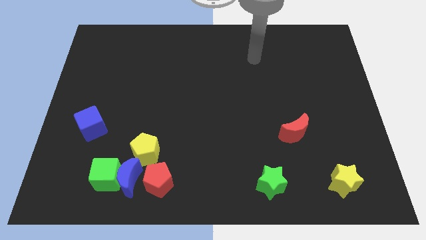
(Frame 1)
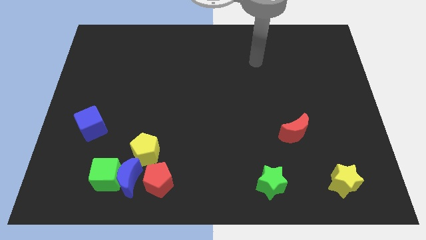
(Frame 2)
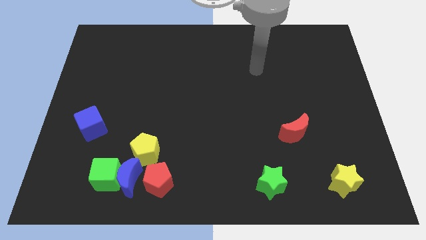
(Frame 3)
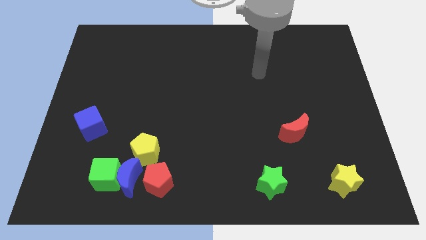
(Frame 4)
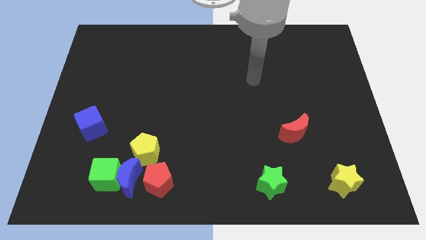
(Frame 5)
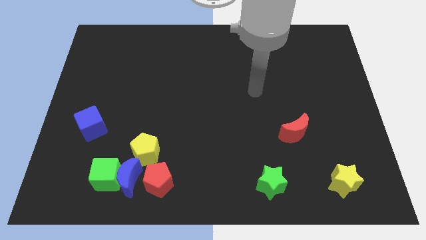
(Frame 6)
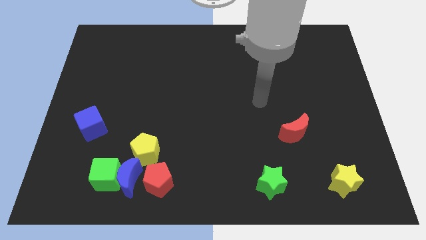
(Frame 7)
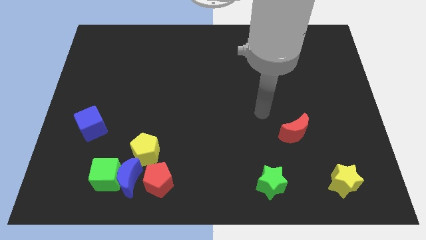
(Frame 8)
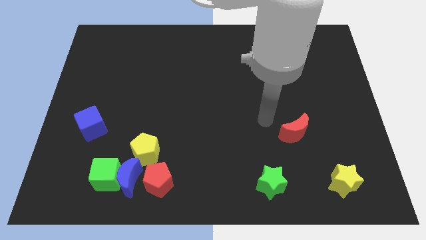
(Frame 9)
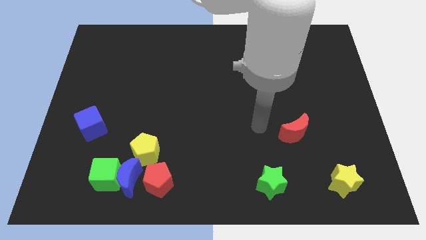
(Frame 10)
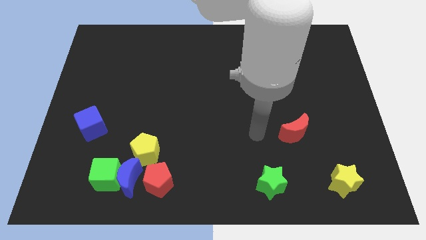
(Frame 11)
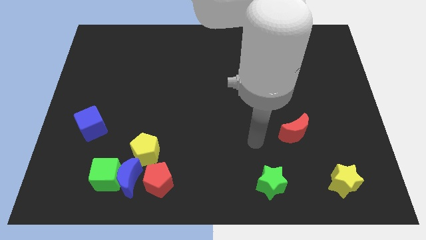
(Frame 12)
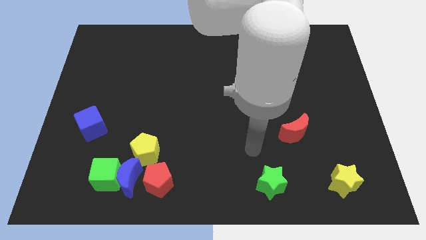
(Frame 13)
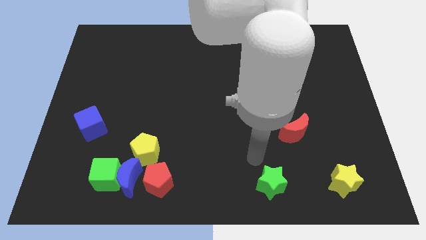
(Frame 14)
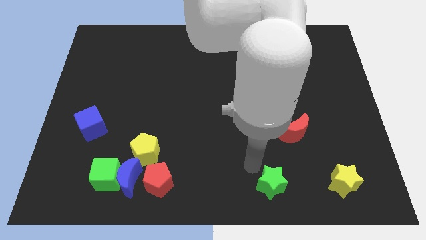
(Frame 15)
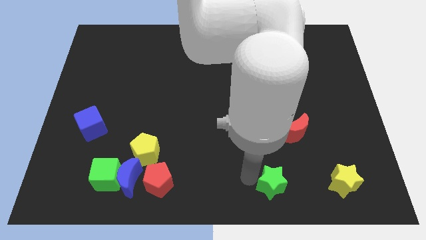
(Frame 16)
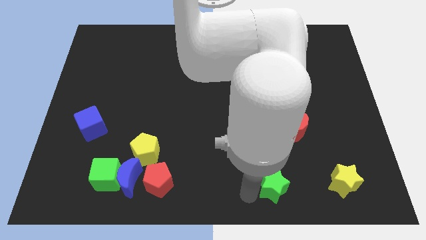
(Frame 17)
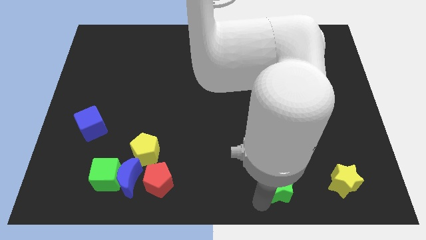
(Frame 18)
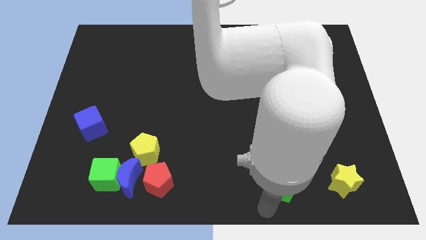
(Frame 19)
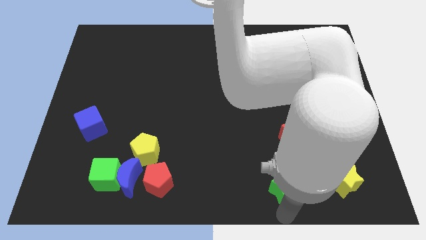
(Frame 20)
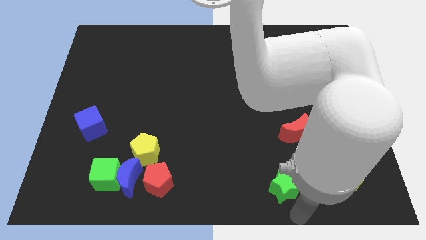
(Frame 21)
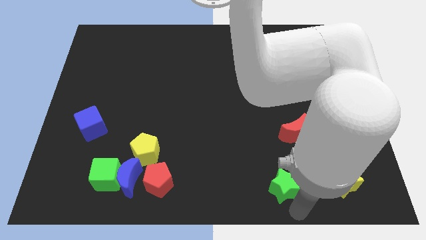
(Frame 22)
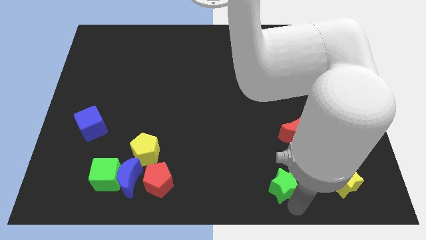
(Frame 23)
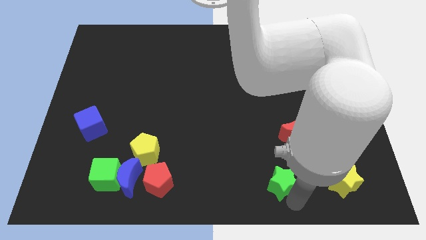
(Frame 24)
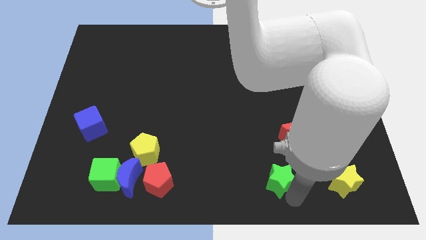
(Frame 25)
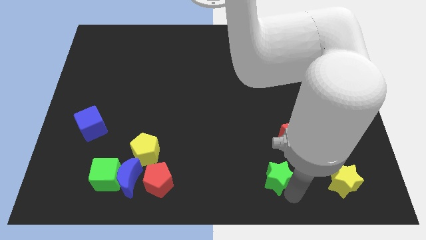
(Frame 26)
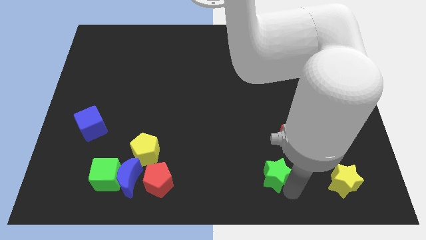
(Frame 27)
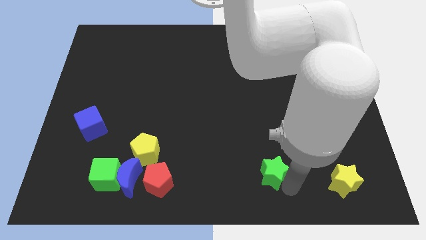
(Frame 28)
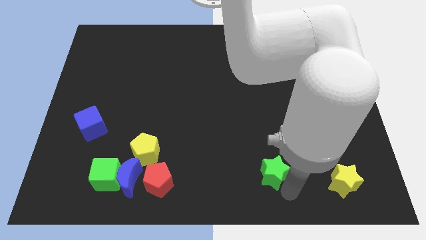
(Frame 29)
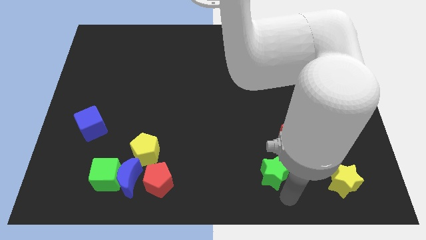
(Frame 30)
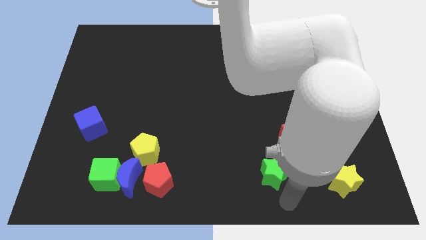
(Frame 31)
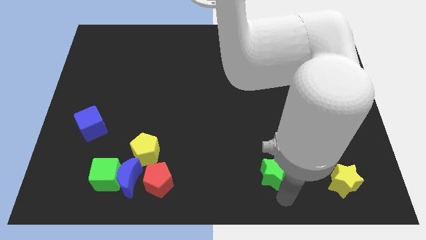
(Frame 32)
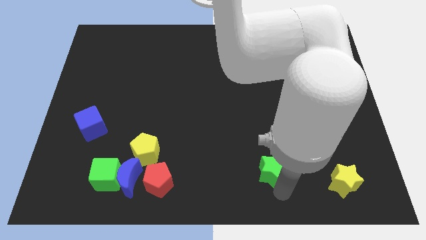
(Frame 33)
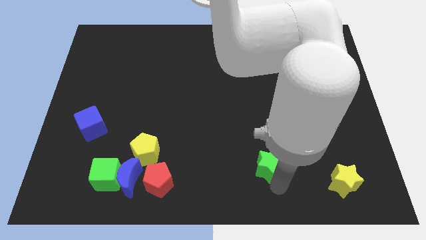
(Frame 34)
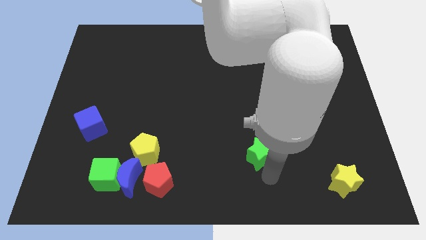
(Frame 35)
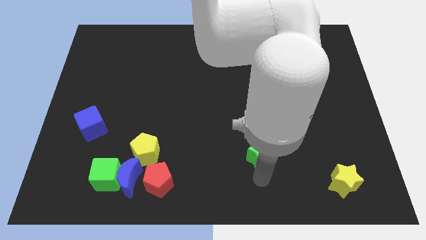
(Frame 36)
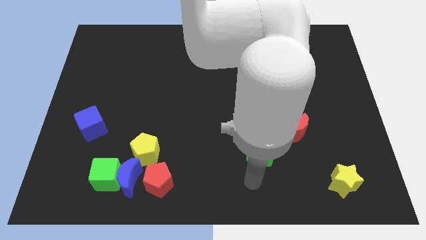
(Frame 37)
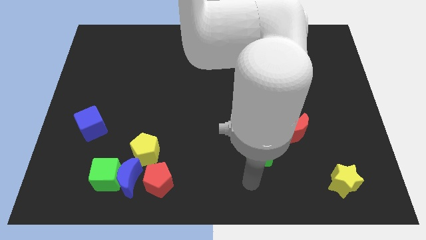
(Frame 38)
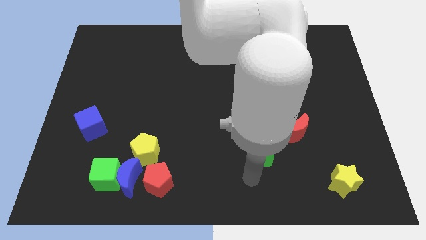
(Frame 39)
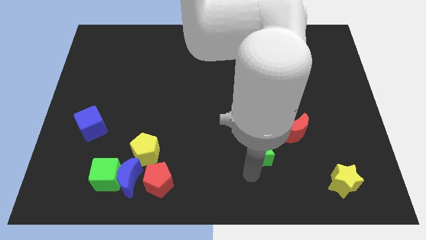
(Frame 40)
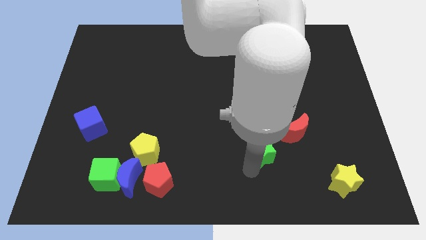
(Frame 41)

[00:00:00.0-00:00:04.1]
push the green star up a little

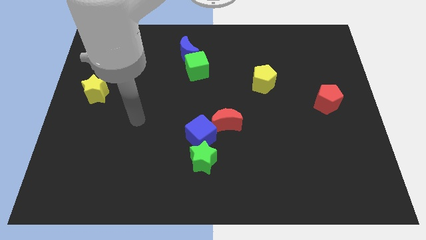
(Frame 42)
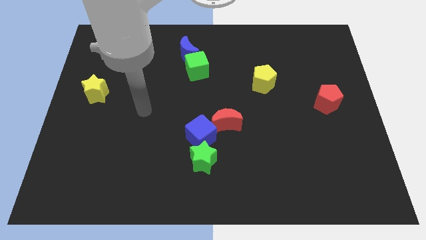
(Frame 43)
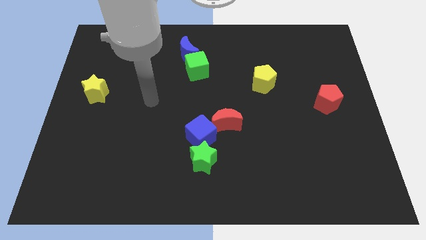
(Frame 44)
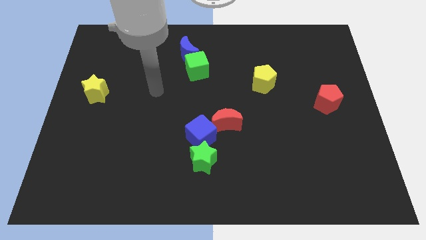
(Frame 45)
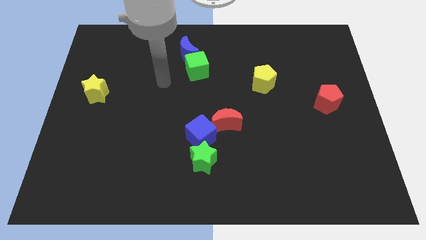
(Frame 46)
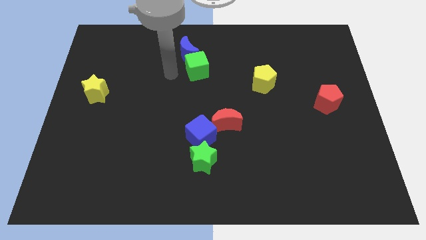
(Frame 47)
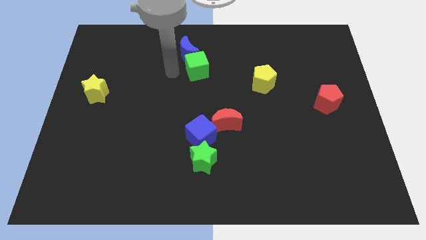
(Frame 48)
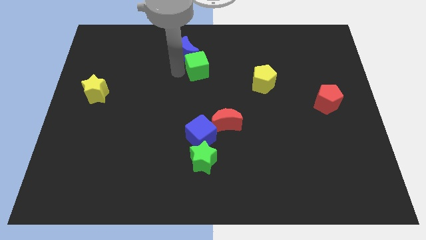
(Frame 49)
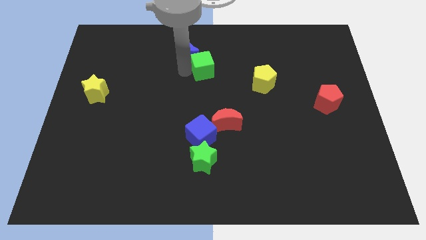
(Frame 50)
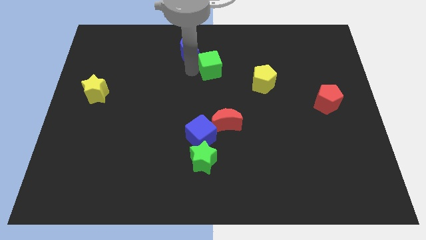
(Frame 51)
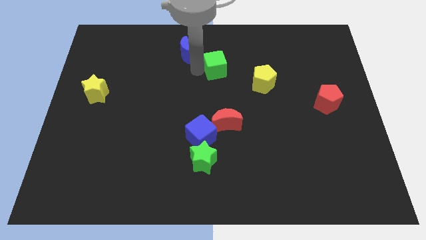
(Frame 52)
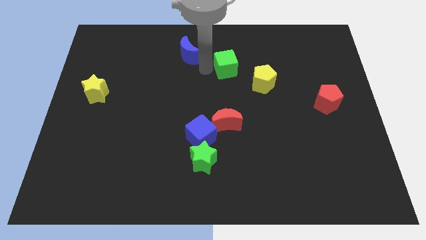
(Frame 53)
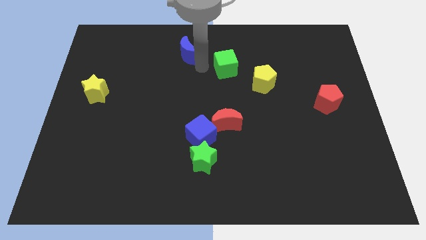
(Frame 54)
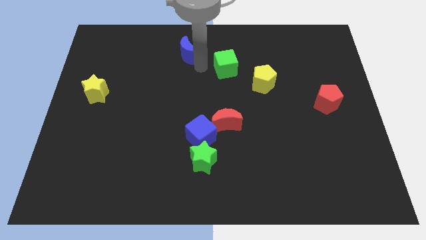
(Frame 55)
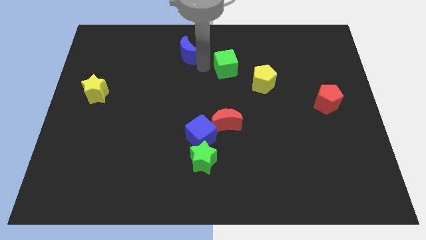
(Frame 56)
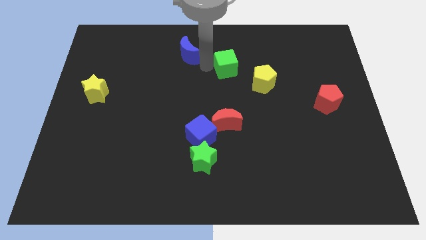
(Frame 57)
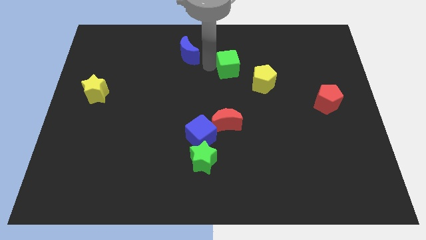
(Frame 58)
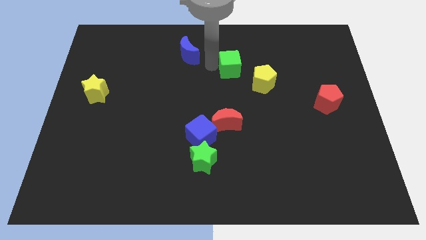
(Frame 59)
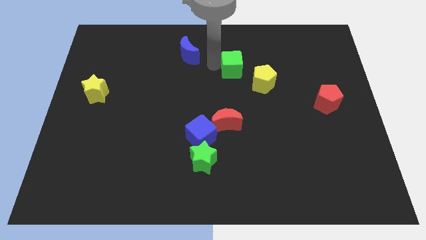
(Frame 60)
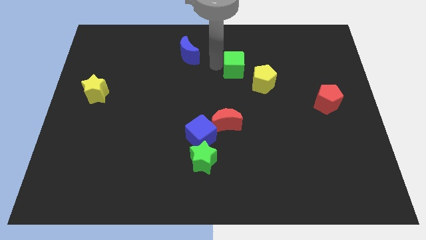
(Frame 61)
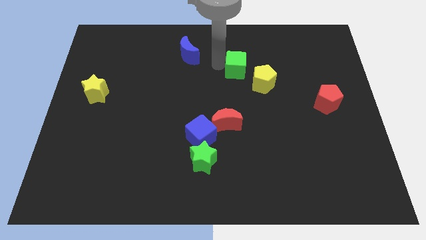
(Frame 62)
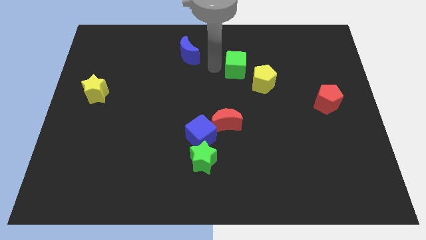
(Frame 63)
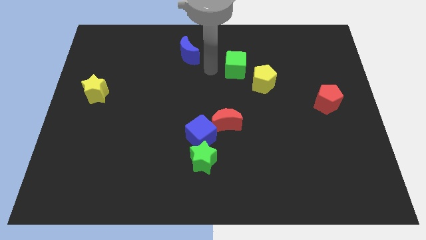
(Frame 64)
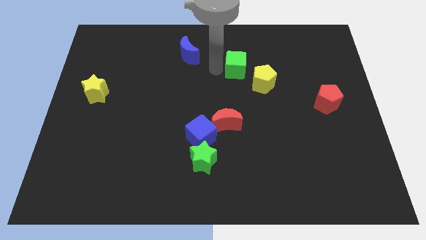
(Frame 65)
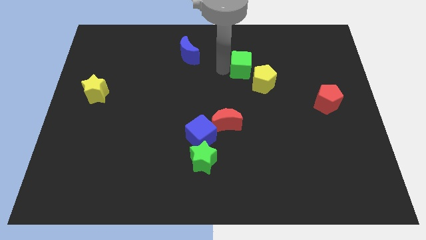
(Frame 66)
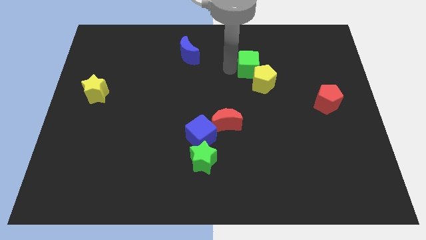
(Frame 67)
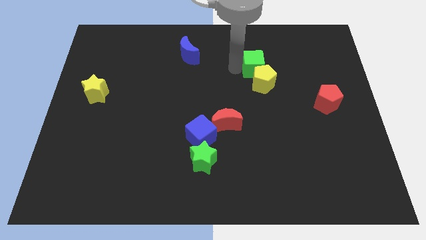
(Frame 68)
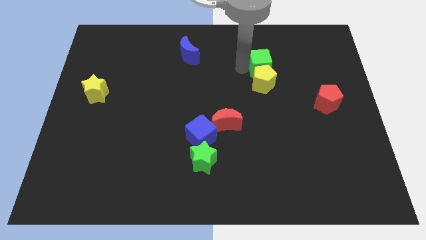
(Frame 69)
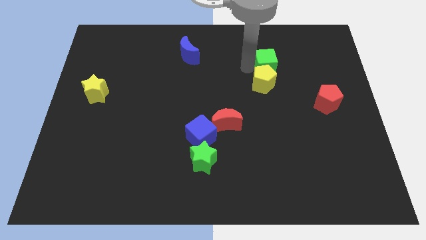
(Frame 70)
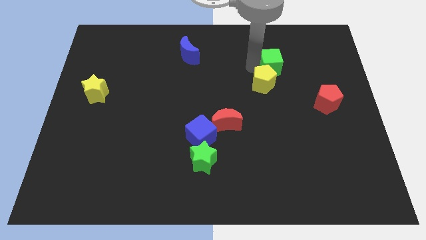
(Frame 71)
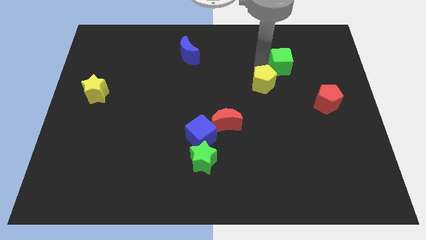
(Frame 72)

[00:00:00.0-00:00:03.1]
move the green cube to the right

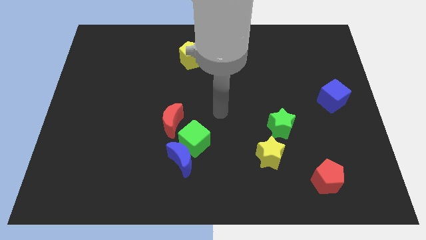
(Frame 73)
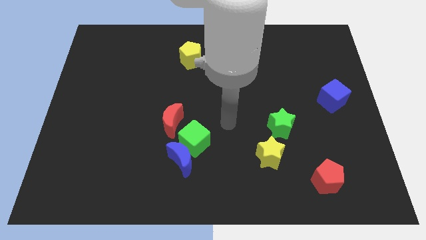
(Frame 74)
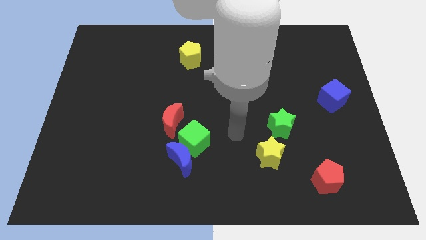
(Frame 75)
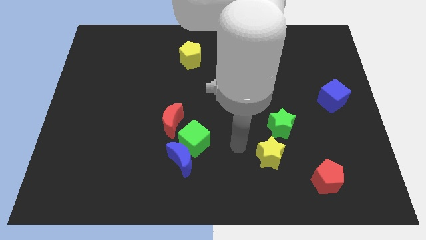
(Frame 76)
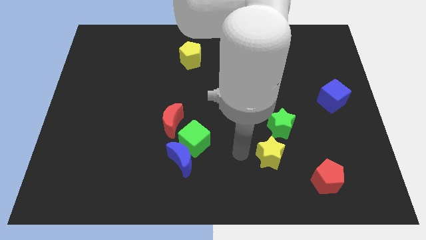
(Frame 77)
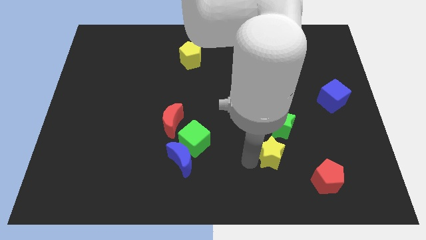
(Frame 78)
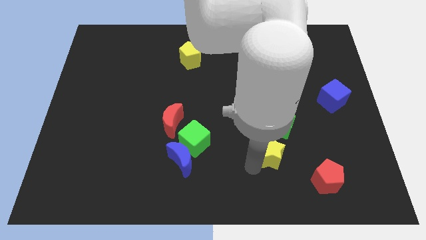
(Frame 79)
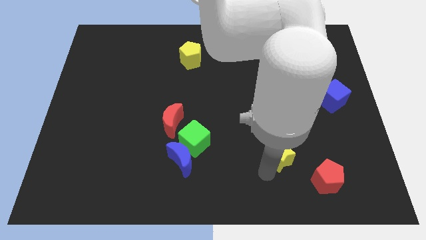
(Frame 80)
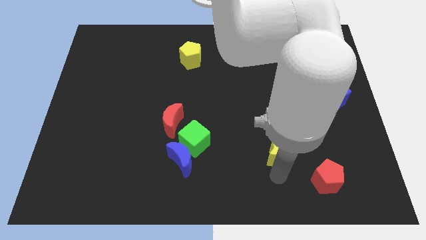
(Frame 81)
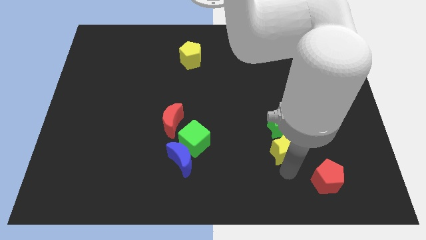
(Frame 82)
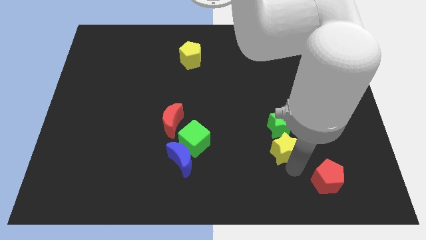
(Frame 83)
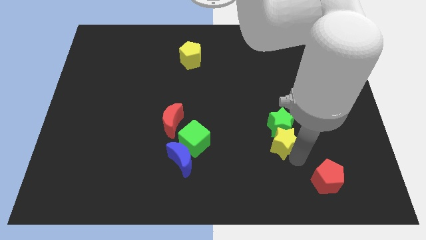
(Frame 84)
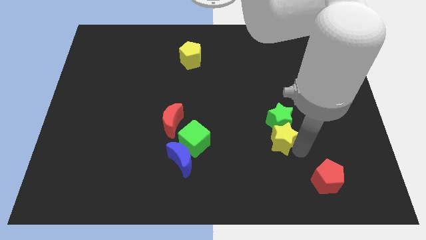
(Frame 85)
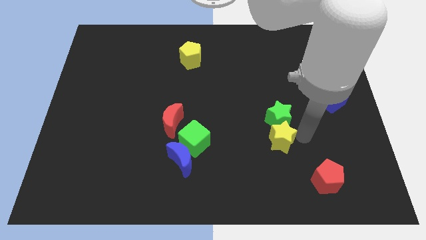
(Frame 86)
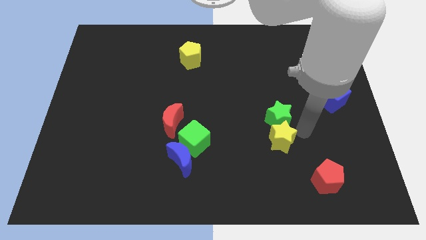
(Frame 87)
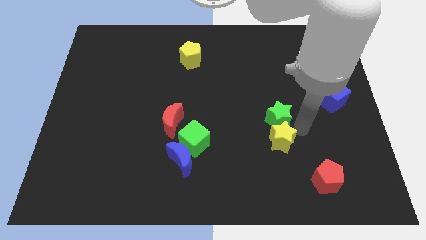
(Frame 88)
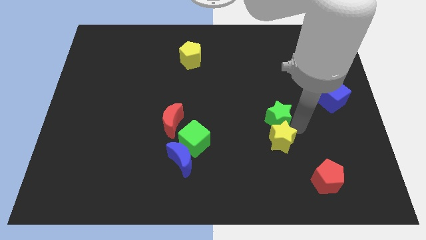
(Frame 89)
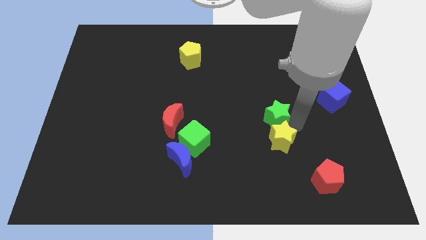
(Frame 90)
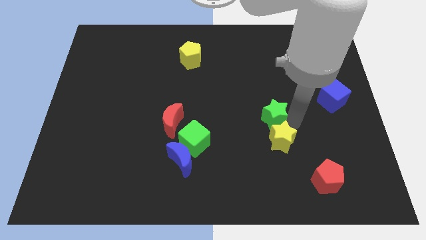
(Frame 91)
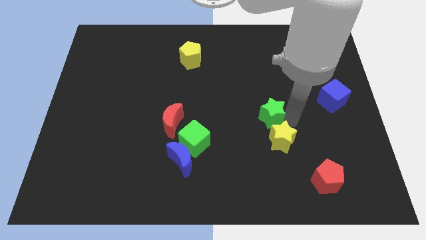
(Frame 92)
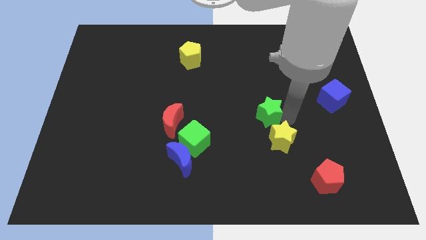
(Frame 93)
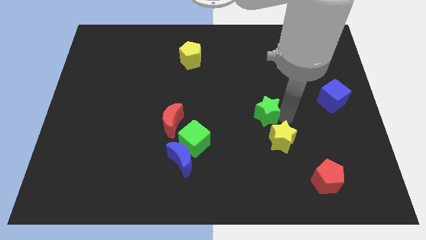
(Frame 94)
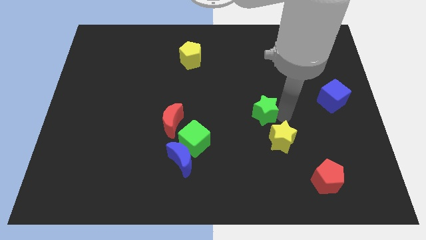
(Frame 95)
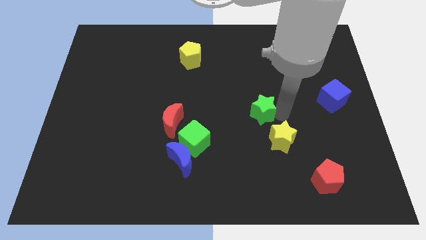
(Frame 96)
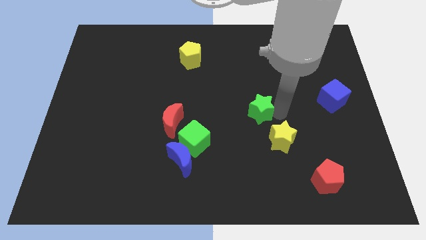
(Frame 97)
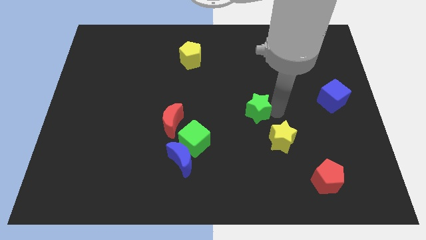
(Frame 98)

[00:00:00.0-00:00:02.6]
slightly move the green star diagonally up and left
